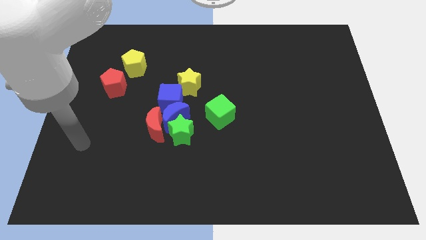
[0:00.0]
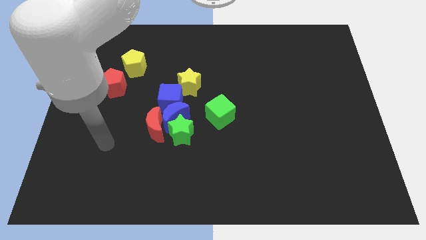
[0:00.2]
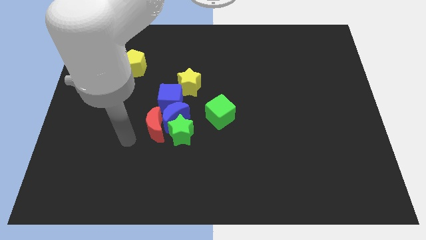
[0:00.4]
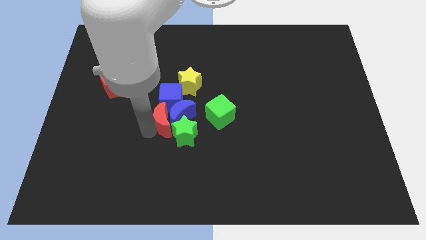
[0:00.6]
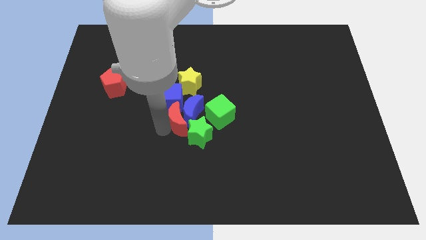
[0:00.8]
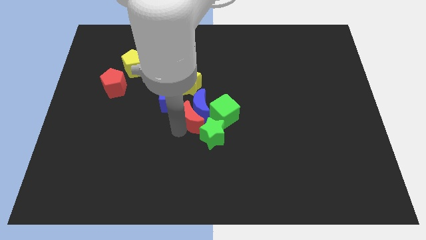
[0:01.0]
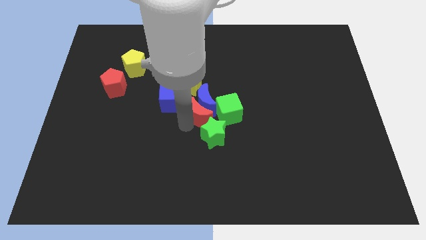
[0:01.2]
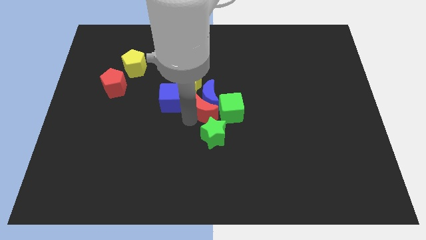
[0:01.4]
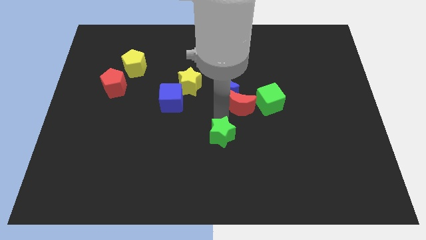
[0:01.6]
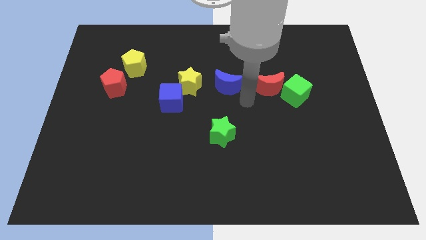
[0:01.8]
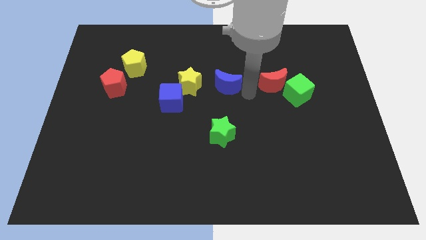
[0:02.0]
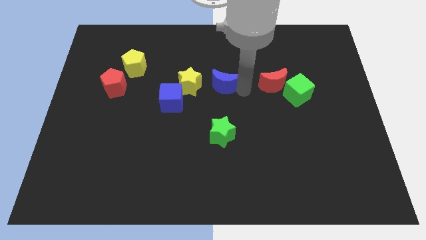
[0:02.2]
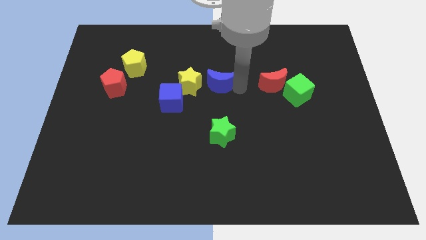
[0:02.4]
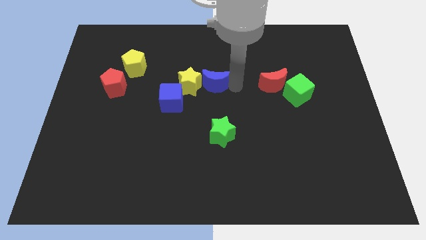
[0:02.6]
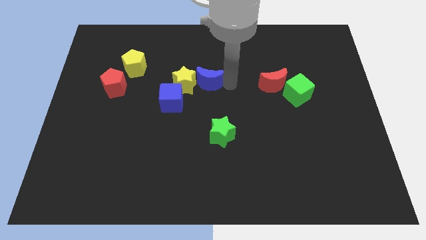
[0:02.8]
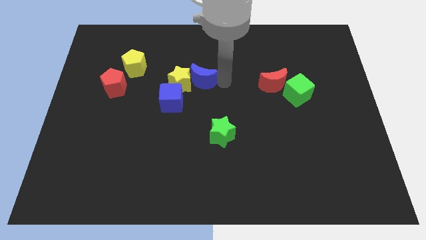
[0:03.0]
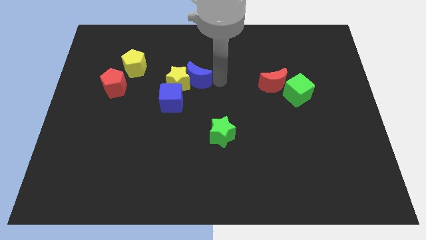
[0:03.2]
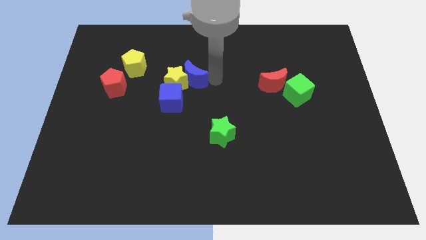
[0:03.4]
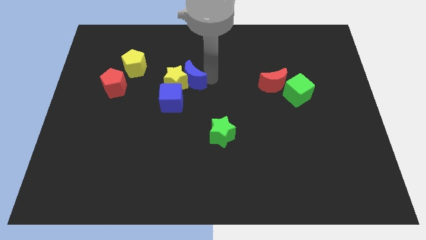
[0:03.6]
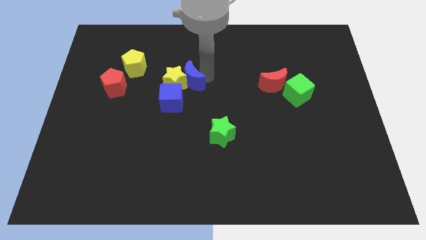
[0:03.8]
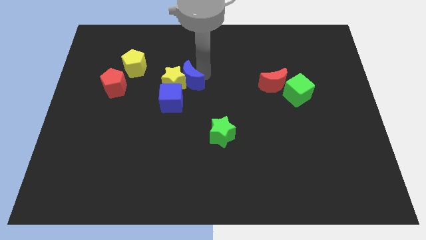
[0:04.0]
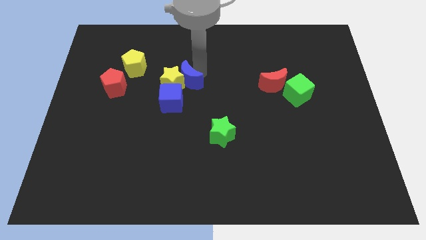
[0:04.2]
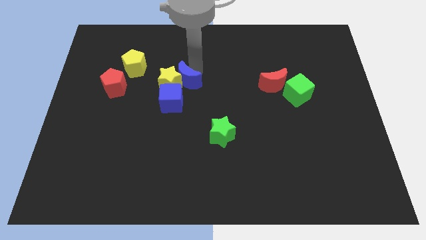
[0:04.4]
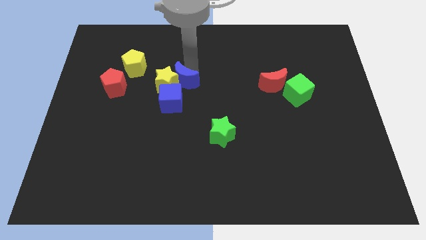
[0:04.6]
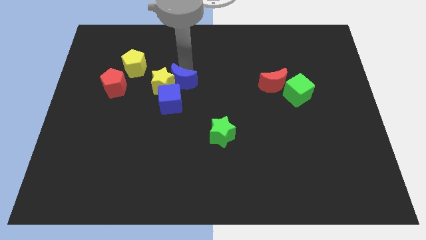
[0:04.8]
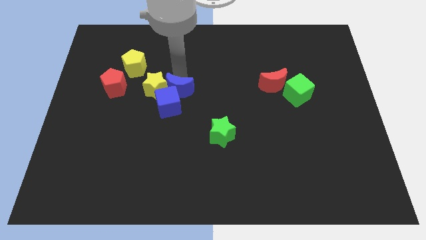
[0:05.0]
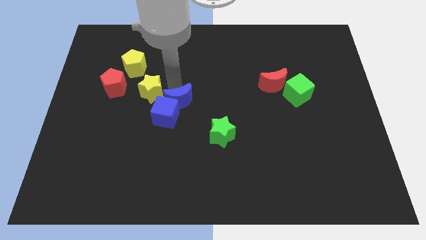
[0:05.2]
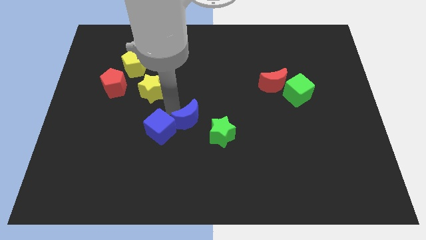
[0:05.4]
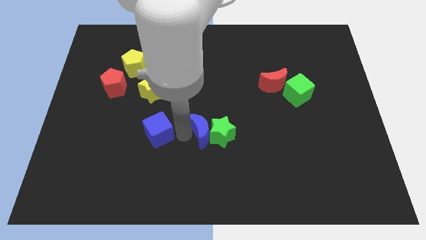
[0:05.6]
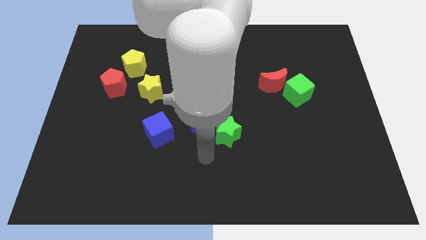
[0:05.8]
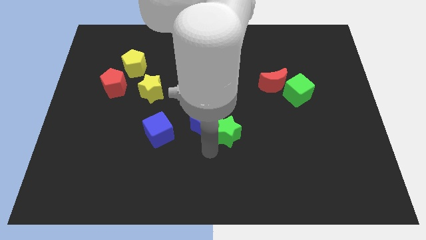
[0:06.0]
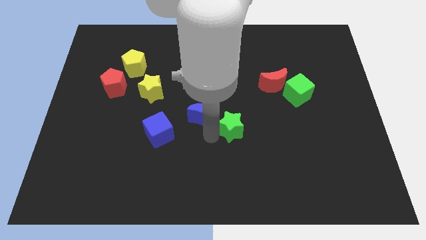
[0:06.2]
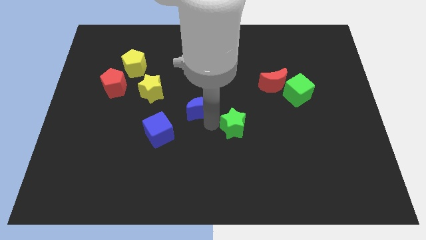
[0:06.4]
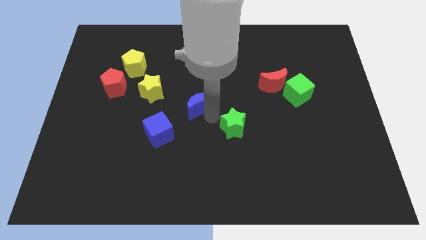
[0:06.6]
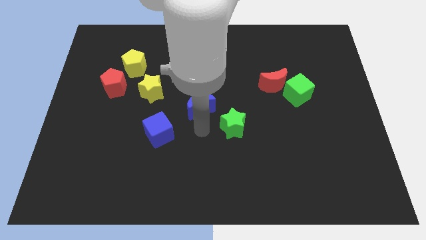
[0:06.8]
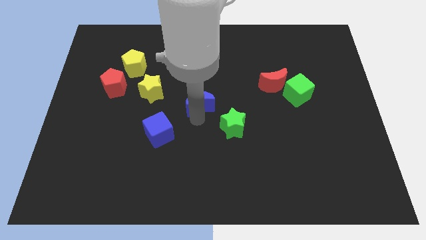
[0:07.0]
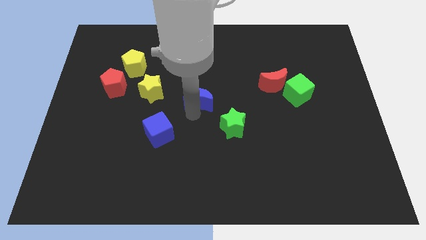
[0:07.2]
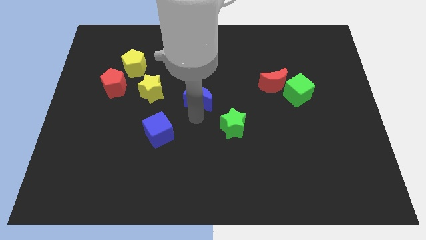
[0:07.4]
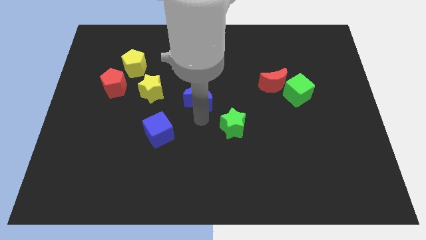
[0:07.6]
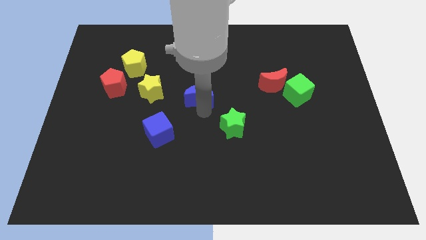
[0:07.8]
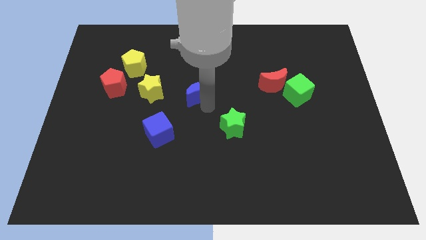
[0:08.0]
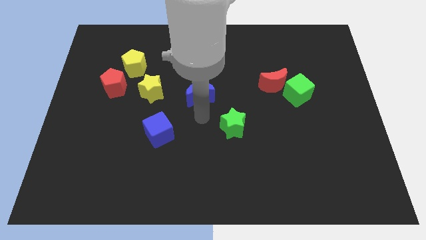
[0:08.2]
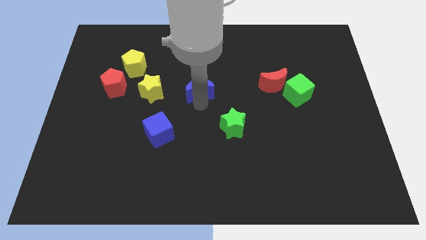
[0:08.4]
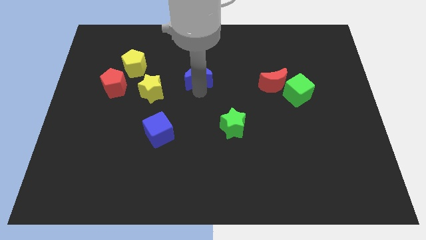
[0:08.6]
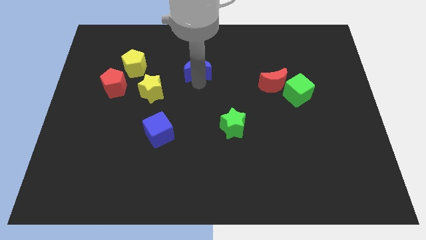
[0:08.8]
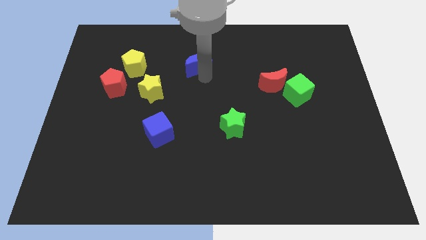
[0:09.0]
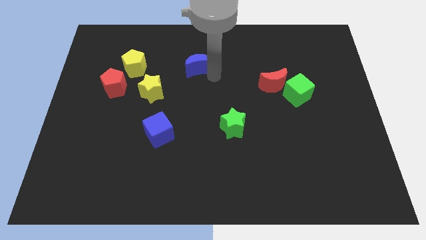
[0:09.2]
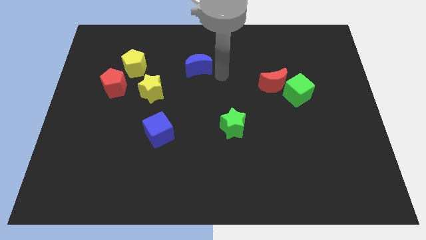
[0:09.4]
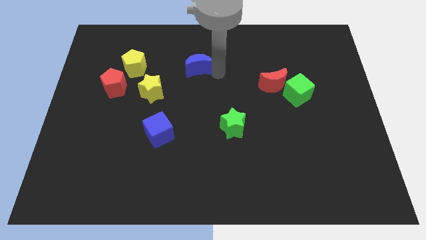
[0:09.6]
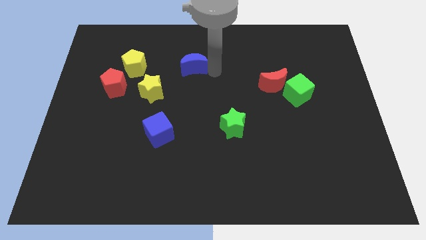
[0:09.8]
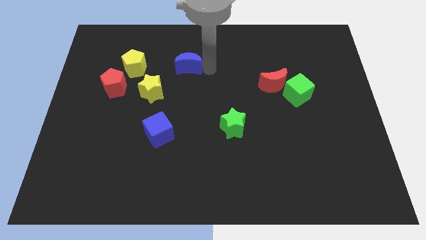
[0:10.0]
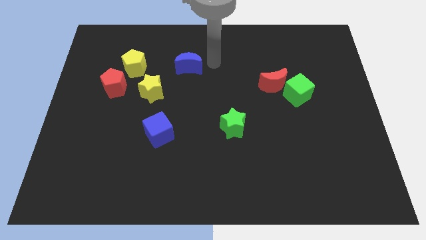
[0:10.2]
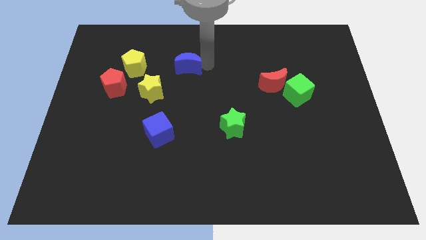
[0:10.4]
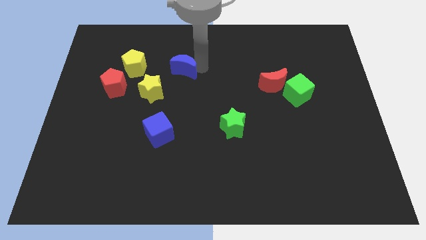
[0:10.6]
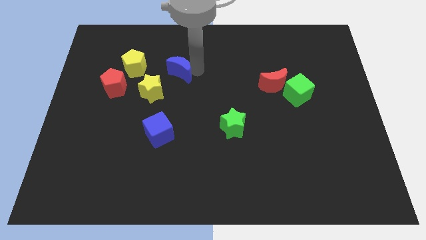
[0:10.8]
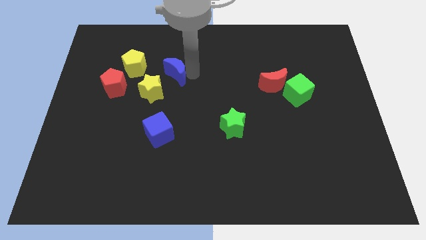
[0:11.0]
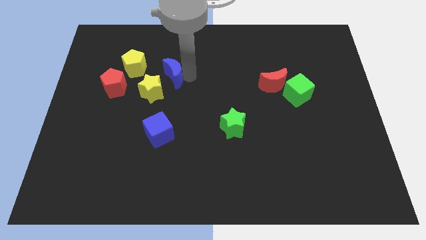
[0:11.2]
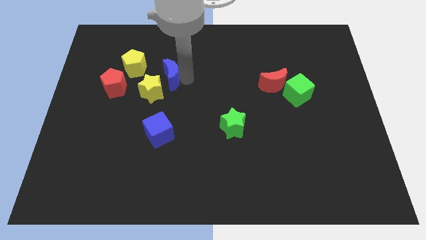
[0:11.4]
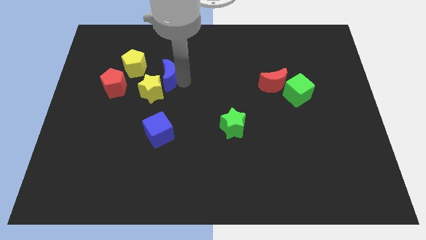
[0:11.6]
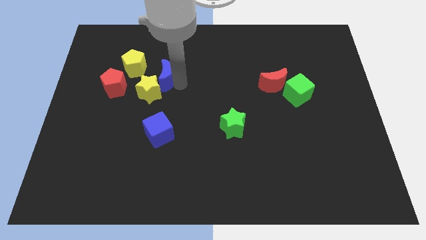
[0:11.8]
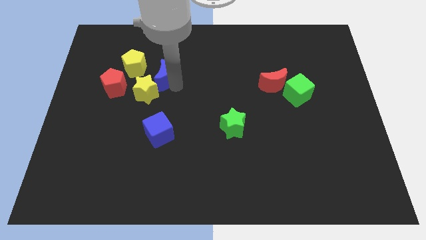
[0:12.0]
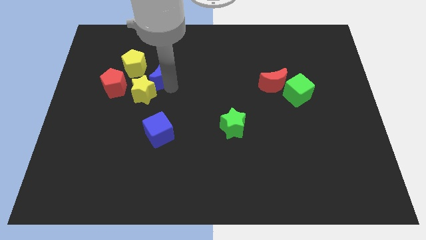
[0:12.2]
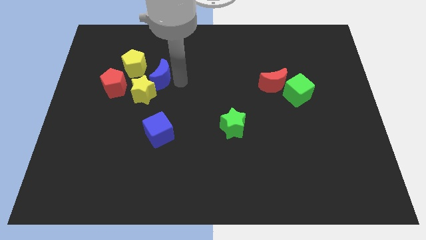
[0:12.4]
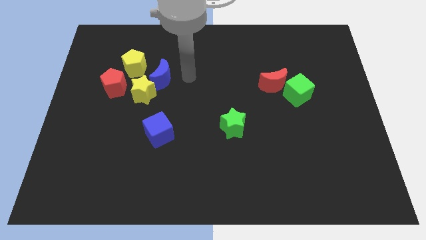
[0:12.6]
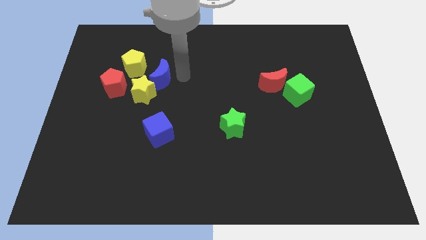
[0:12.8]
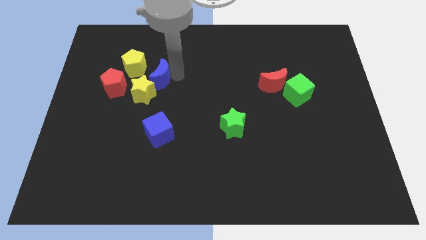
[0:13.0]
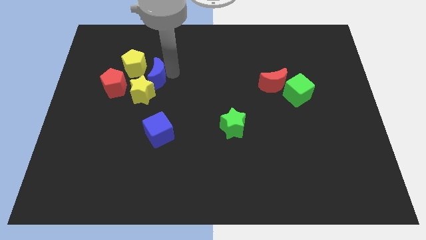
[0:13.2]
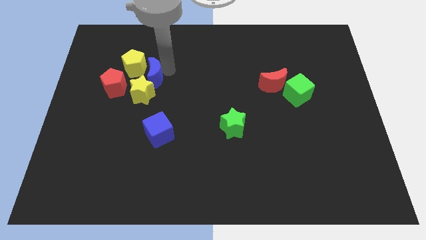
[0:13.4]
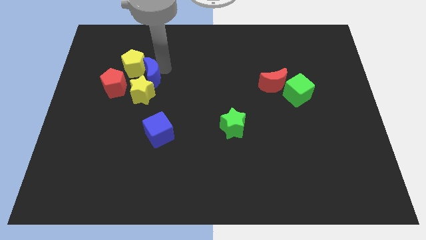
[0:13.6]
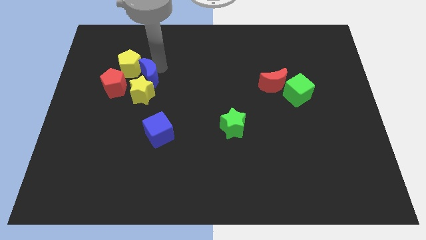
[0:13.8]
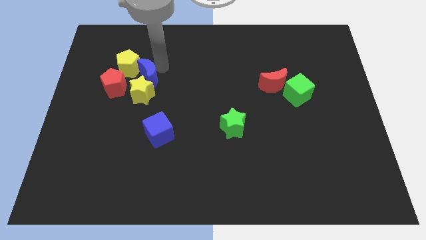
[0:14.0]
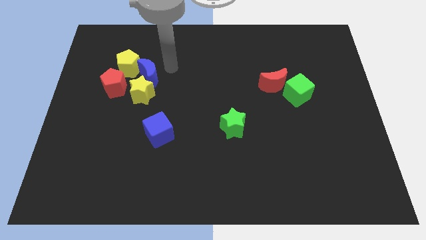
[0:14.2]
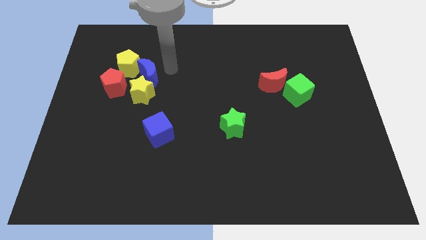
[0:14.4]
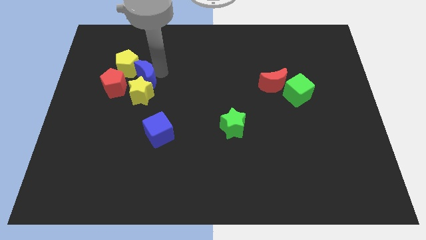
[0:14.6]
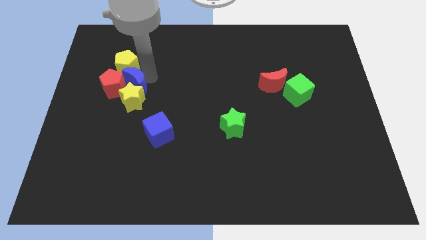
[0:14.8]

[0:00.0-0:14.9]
slide the blue moon to the red pentagon

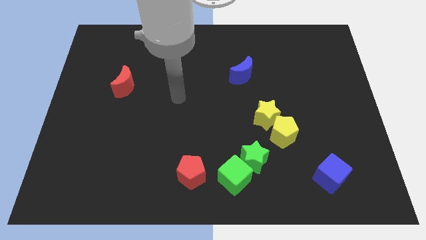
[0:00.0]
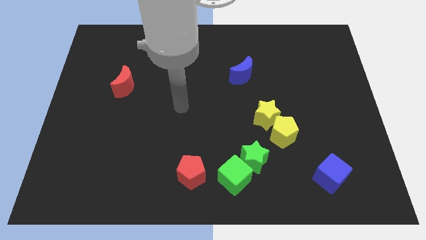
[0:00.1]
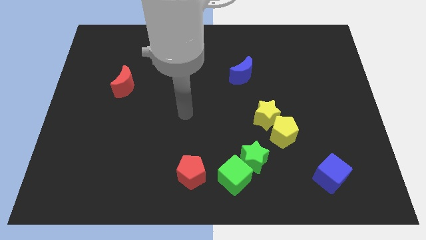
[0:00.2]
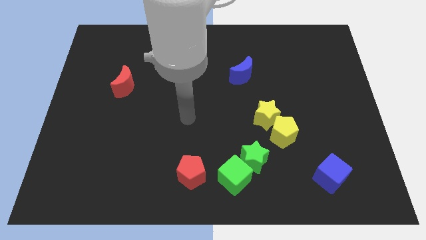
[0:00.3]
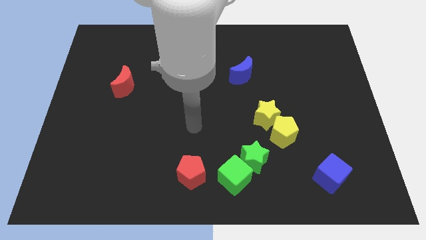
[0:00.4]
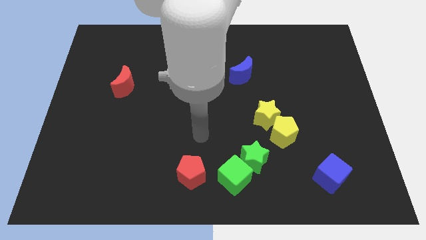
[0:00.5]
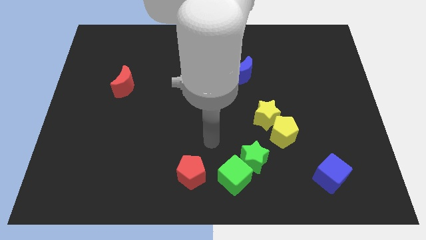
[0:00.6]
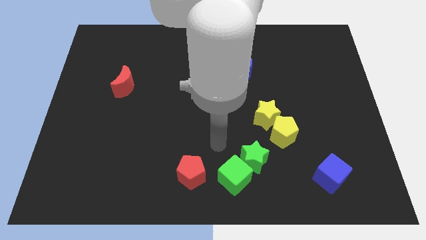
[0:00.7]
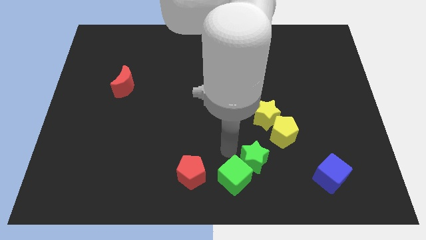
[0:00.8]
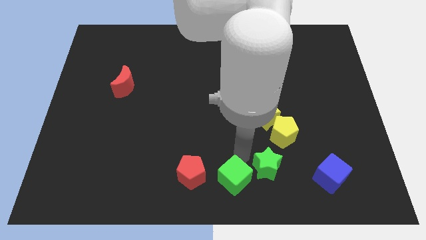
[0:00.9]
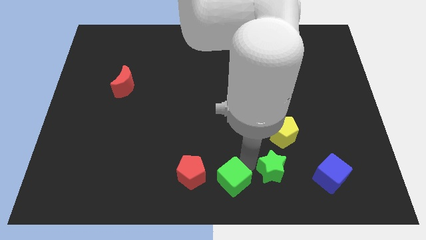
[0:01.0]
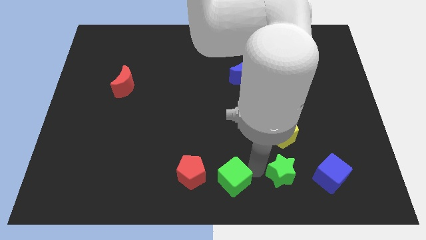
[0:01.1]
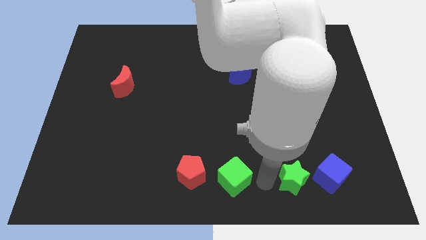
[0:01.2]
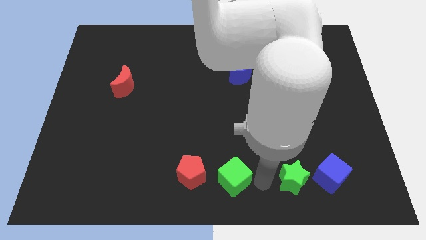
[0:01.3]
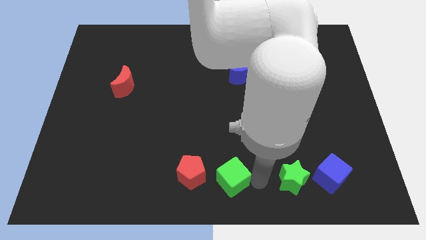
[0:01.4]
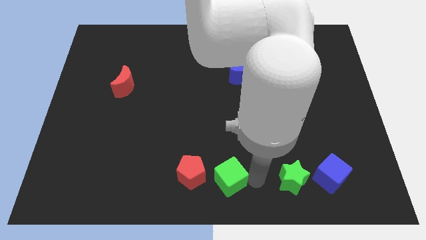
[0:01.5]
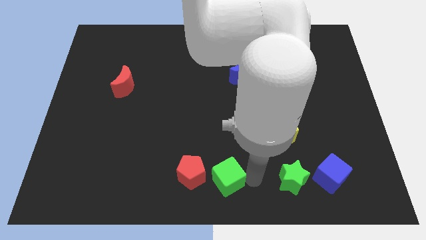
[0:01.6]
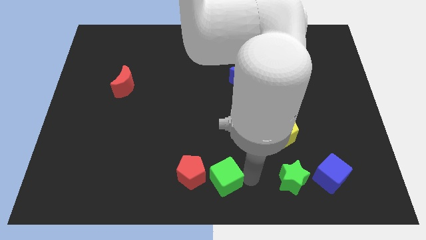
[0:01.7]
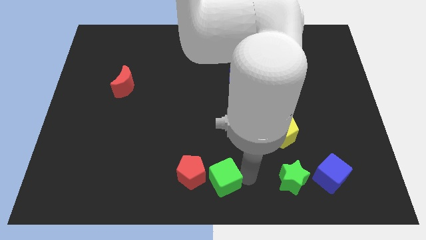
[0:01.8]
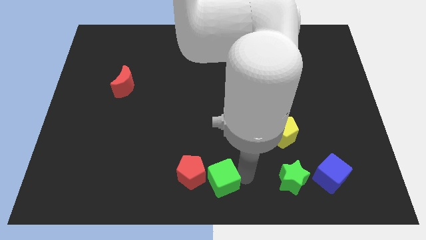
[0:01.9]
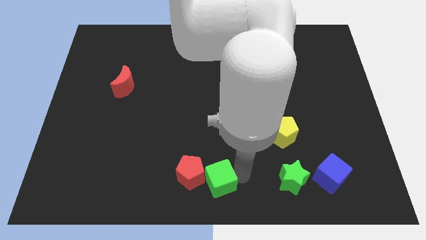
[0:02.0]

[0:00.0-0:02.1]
put the green cube next to the red pentagon
